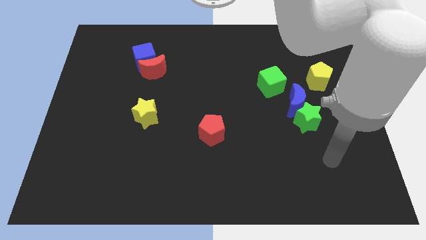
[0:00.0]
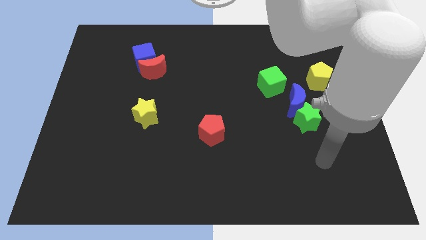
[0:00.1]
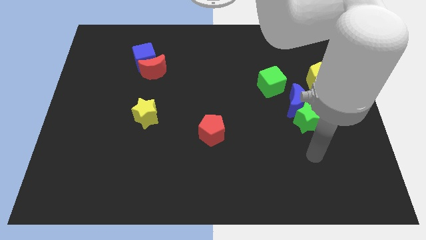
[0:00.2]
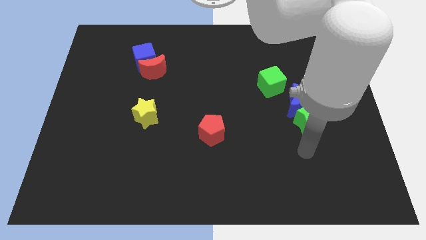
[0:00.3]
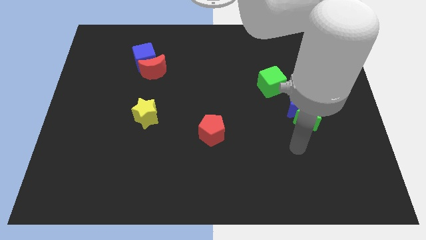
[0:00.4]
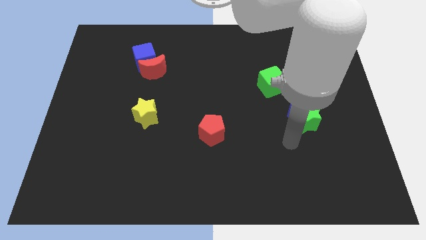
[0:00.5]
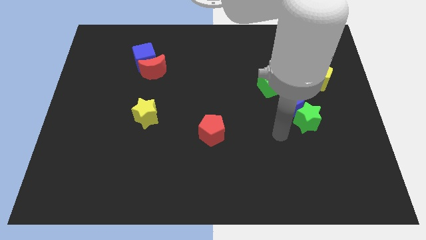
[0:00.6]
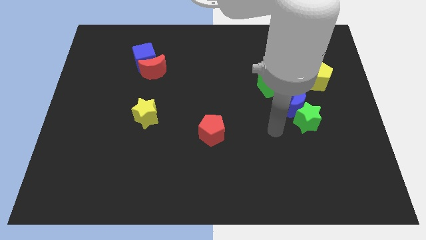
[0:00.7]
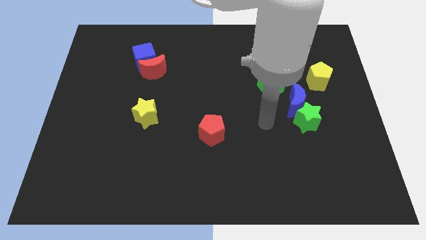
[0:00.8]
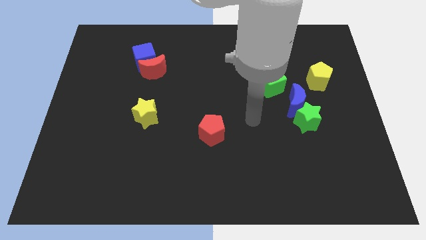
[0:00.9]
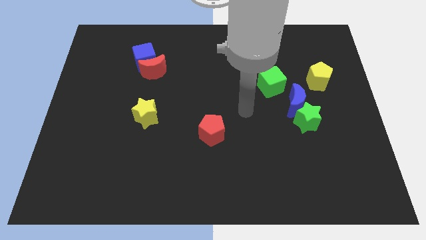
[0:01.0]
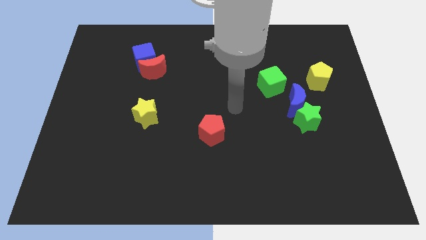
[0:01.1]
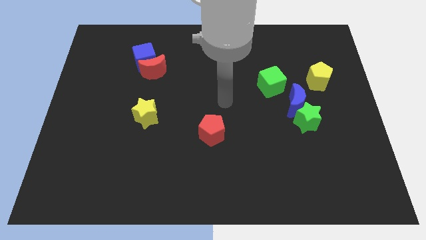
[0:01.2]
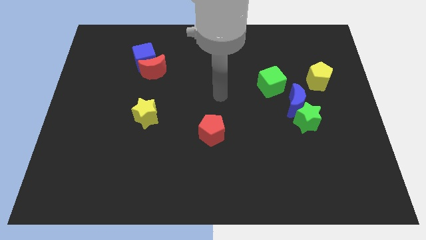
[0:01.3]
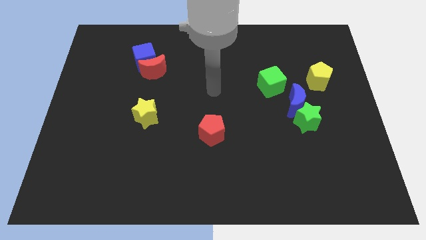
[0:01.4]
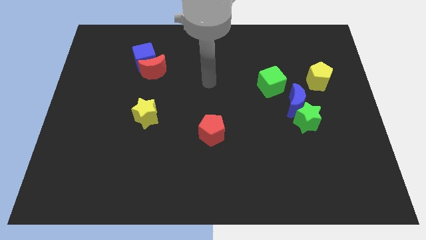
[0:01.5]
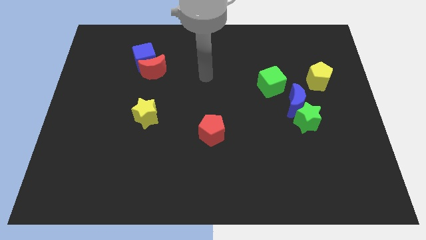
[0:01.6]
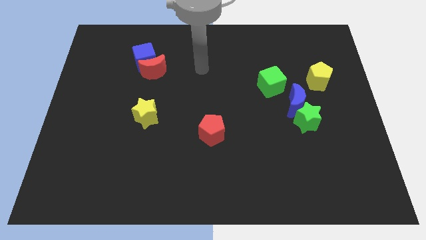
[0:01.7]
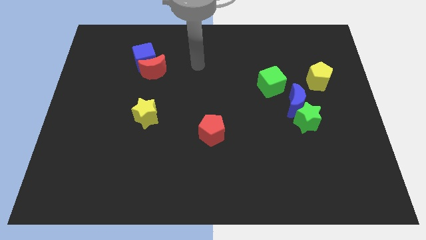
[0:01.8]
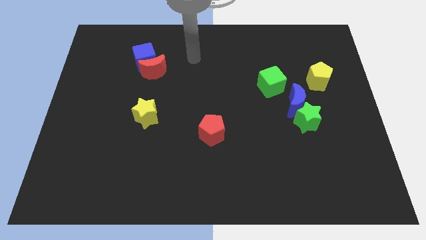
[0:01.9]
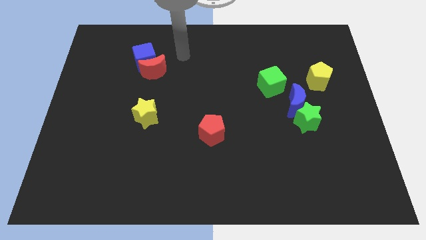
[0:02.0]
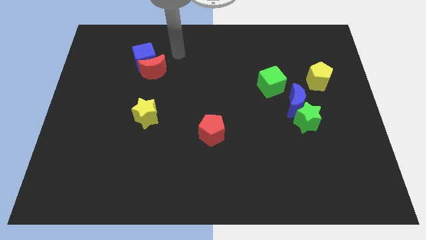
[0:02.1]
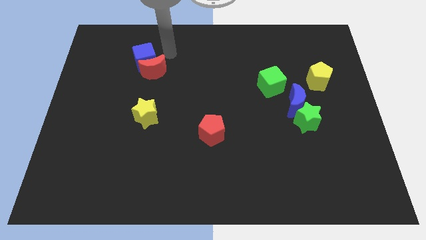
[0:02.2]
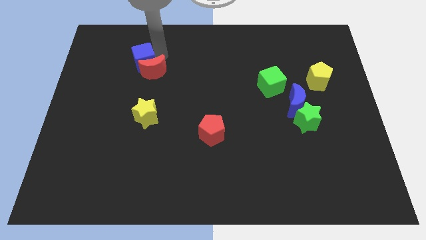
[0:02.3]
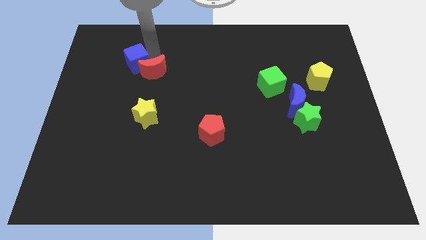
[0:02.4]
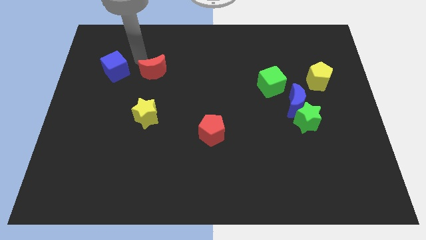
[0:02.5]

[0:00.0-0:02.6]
separate the red moon from the blue cube

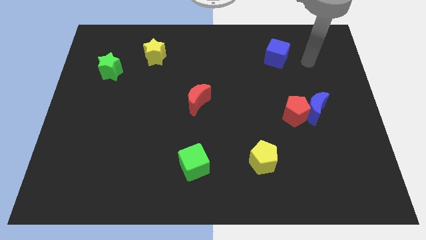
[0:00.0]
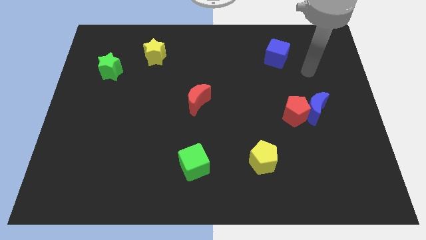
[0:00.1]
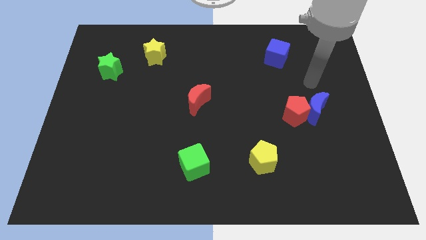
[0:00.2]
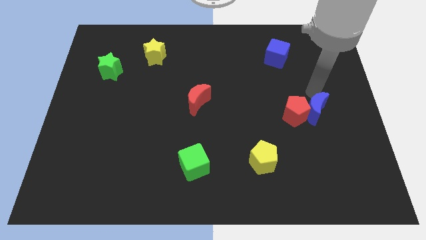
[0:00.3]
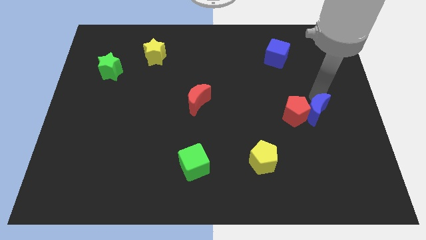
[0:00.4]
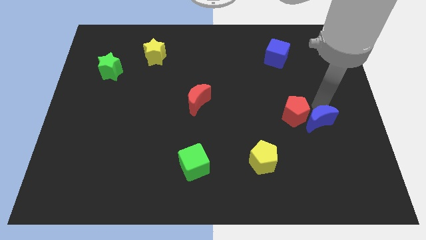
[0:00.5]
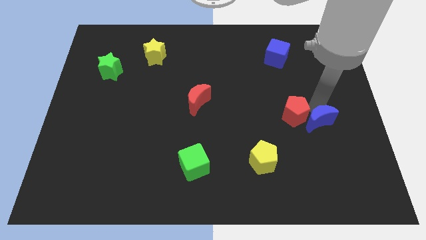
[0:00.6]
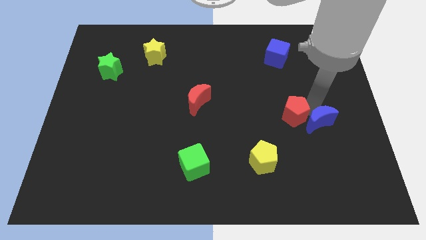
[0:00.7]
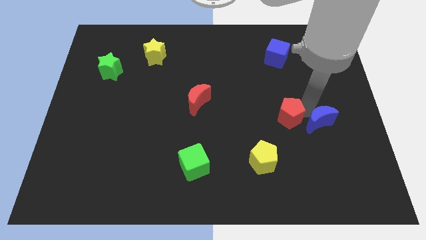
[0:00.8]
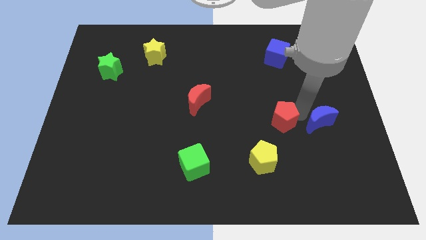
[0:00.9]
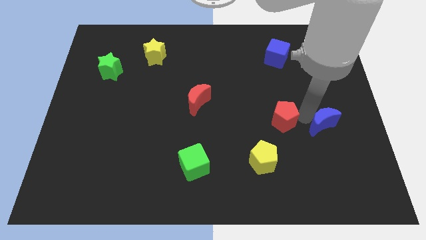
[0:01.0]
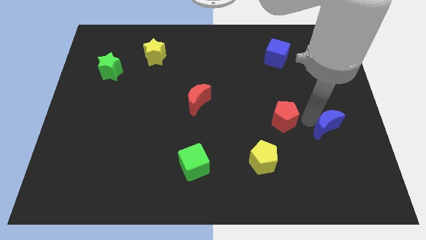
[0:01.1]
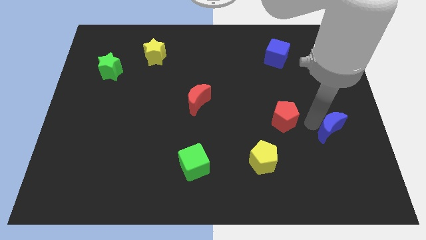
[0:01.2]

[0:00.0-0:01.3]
pull the red pentagon apart from the blue moon

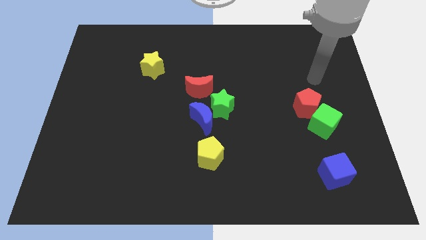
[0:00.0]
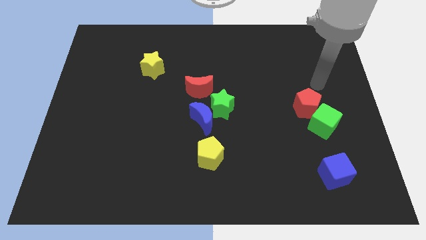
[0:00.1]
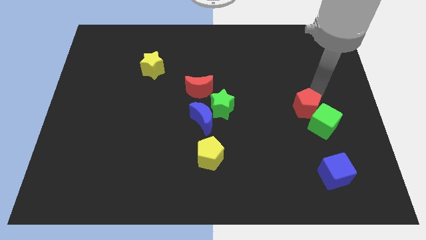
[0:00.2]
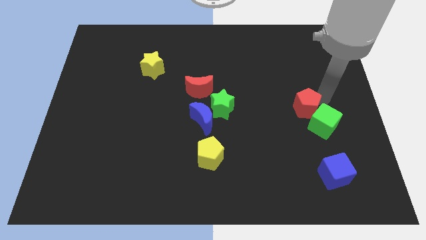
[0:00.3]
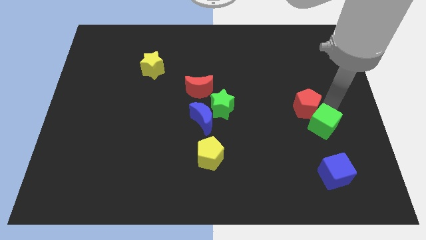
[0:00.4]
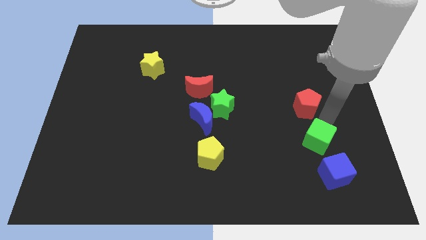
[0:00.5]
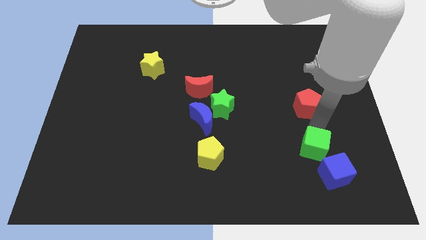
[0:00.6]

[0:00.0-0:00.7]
pull the red pentagon apart from the green cube

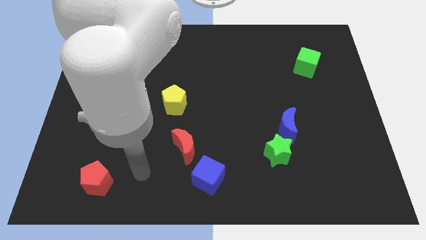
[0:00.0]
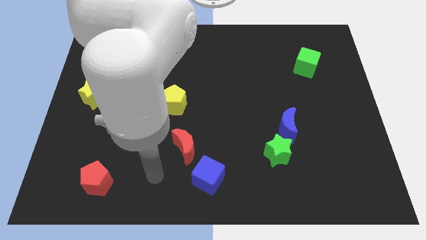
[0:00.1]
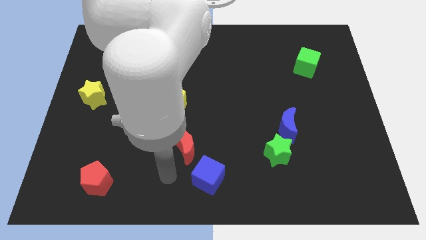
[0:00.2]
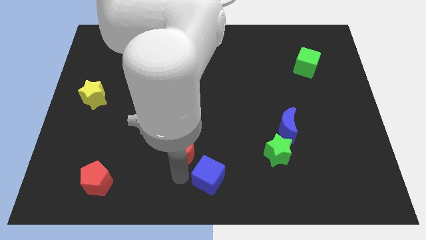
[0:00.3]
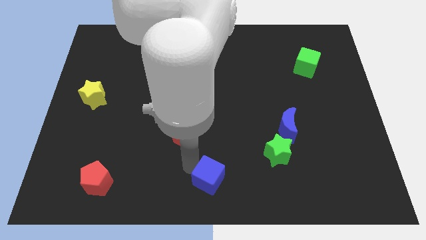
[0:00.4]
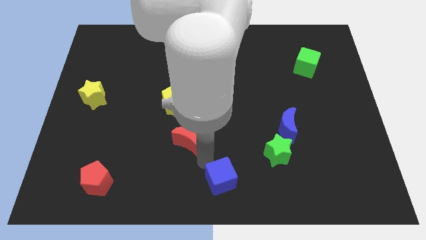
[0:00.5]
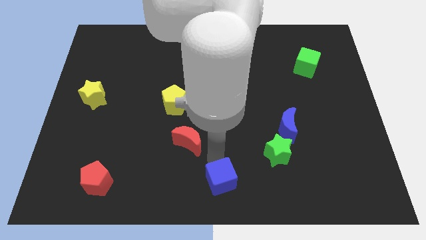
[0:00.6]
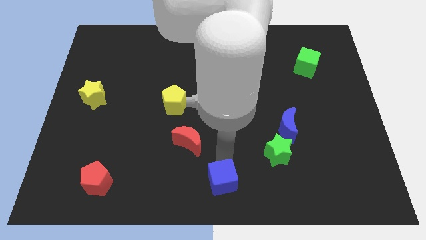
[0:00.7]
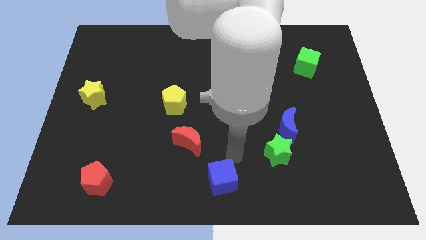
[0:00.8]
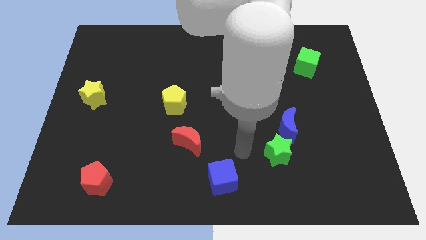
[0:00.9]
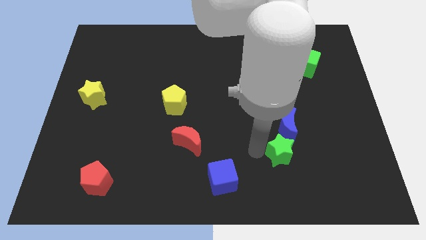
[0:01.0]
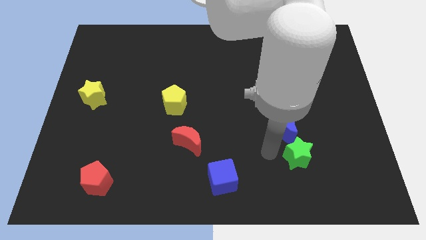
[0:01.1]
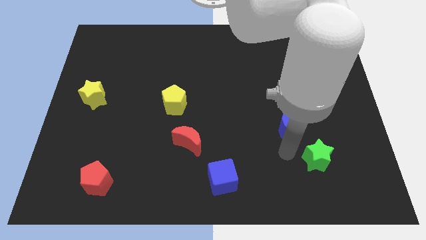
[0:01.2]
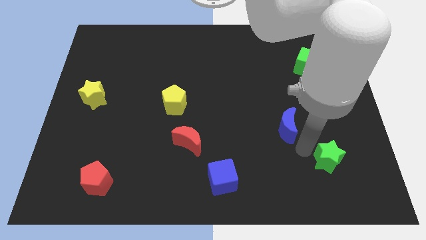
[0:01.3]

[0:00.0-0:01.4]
move the blue moon away from the green star

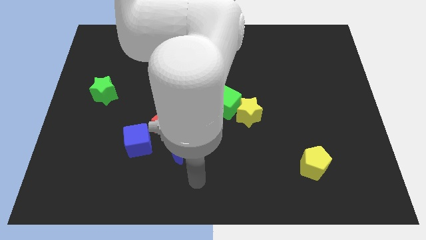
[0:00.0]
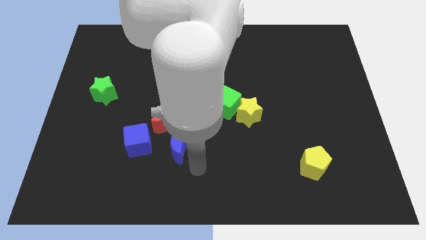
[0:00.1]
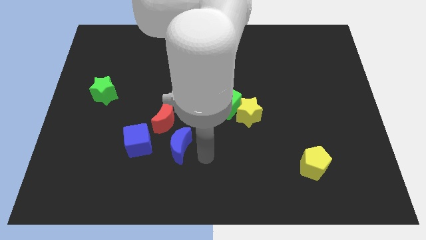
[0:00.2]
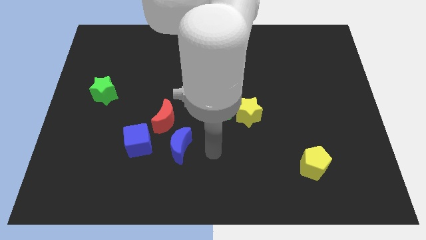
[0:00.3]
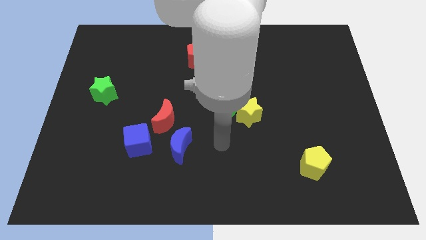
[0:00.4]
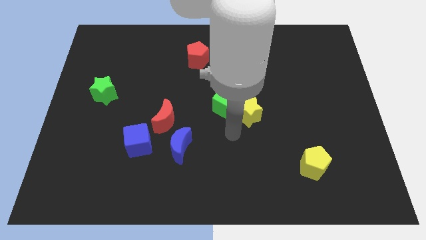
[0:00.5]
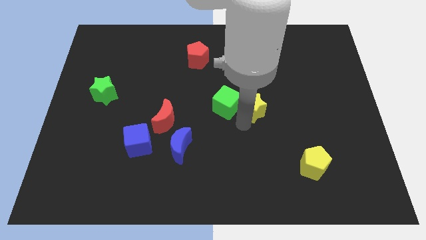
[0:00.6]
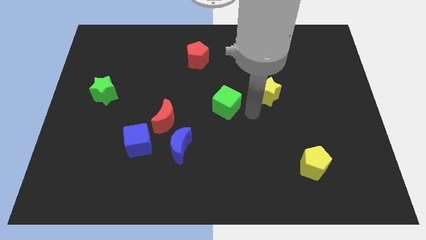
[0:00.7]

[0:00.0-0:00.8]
pull the green cube apart from the yellow star

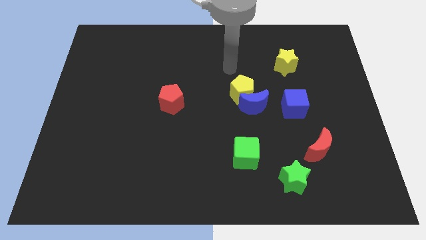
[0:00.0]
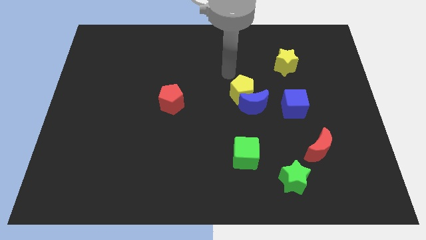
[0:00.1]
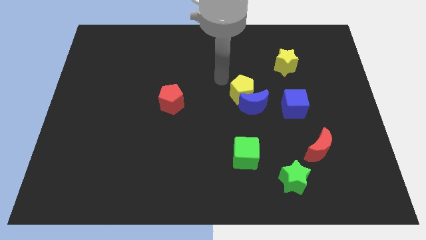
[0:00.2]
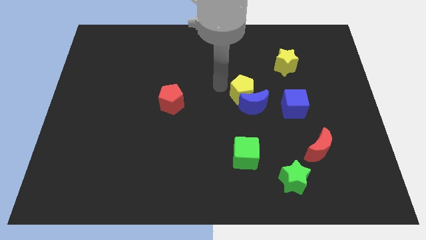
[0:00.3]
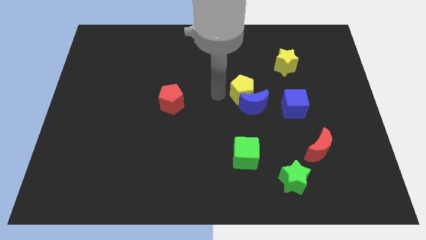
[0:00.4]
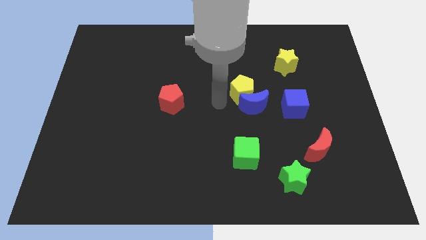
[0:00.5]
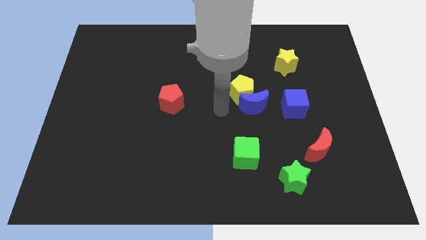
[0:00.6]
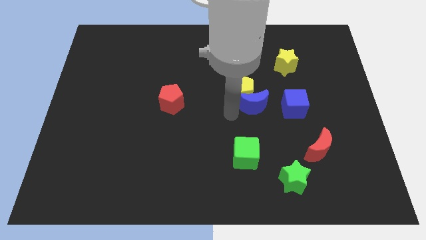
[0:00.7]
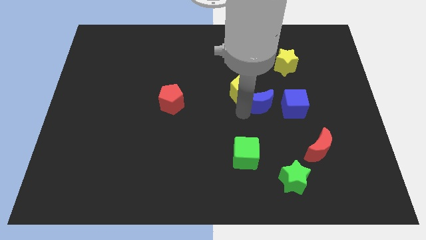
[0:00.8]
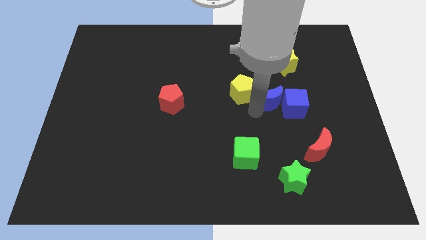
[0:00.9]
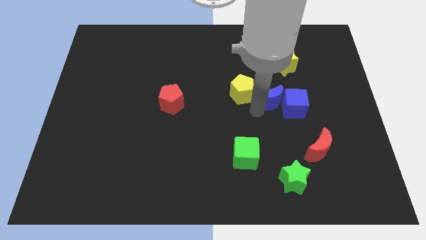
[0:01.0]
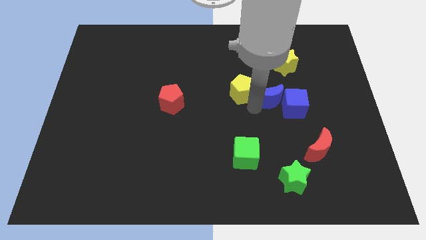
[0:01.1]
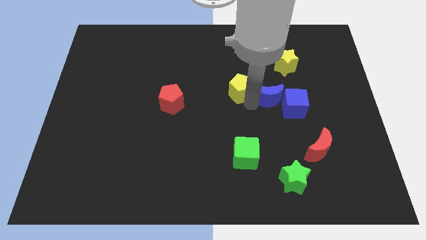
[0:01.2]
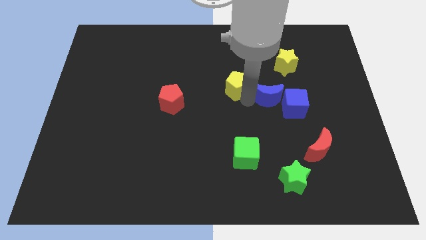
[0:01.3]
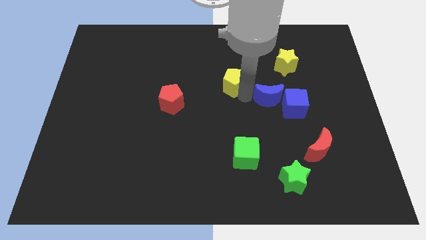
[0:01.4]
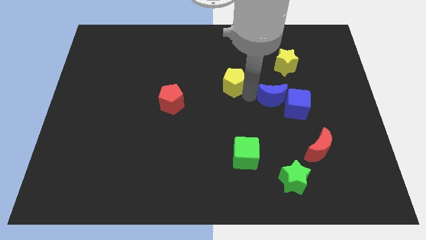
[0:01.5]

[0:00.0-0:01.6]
pull the yellow pentagon apart from the blue moon

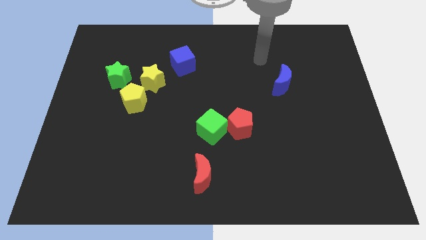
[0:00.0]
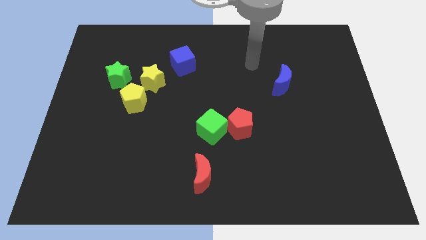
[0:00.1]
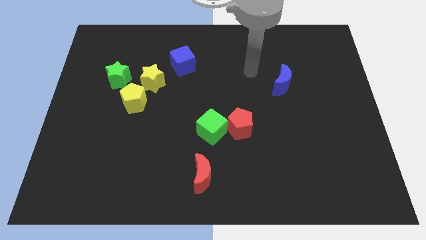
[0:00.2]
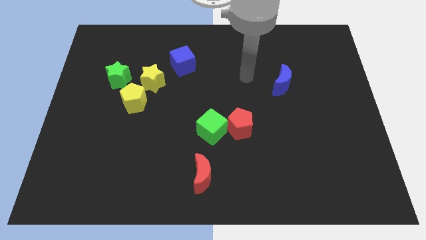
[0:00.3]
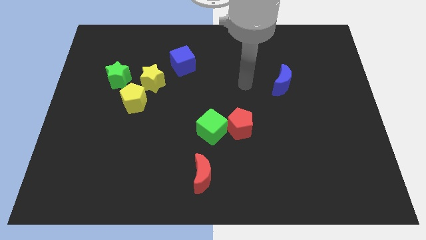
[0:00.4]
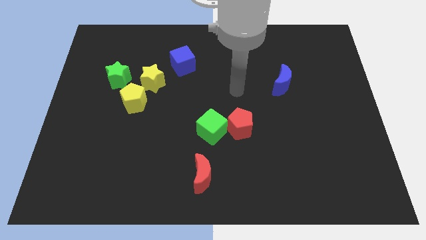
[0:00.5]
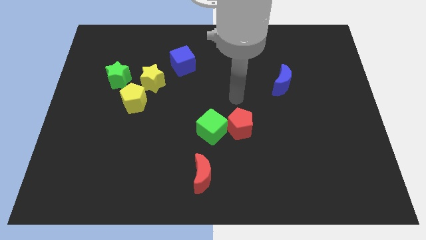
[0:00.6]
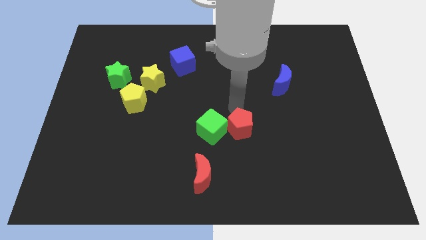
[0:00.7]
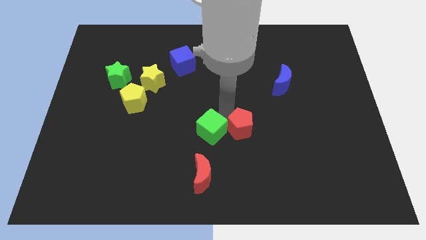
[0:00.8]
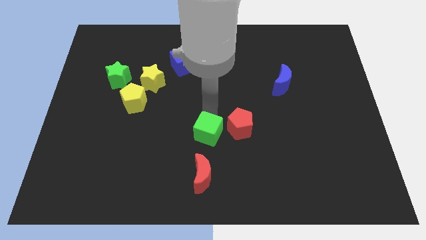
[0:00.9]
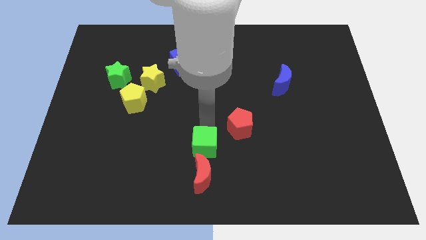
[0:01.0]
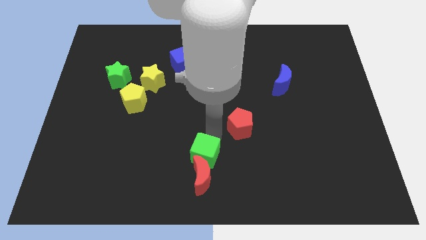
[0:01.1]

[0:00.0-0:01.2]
move the red pentagon away from the green cube
